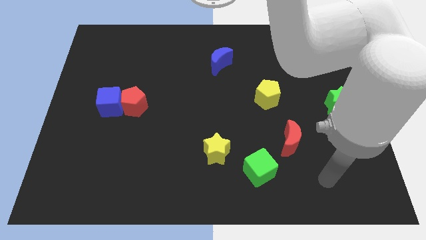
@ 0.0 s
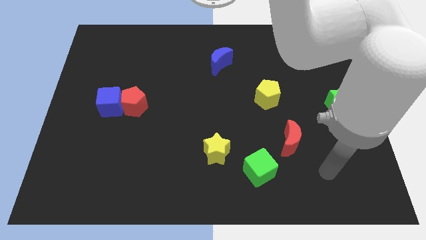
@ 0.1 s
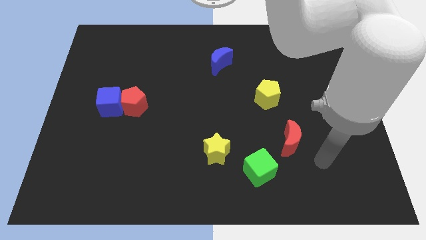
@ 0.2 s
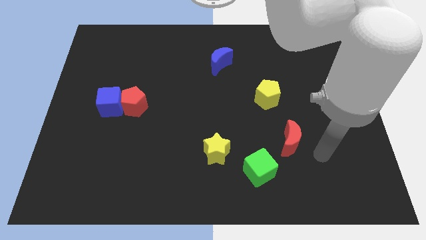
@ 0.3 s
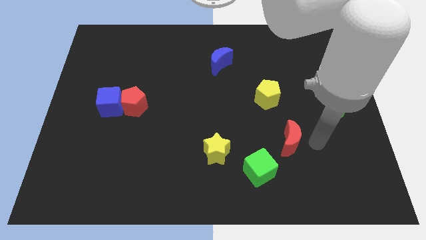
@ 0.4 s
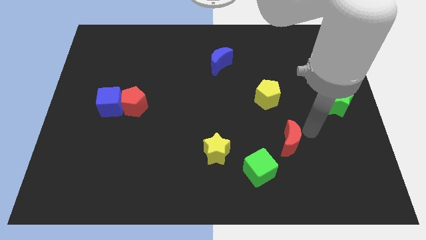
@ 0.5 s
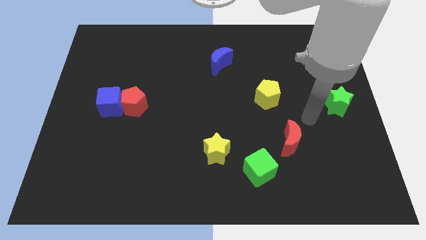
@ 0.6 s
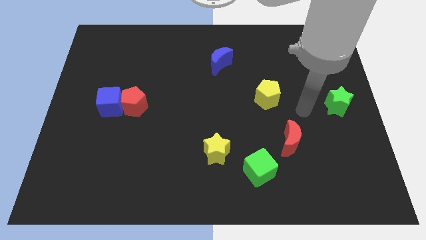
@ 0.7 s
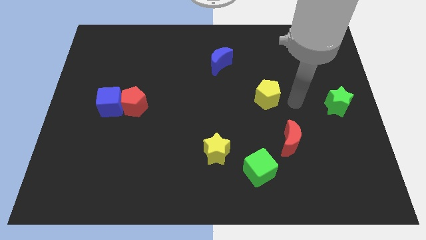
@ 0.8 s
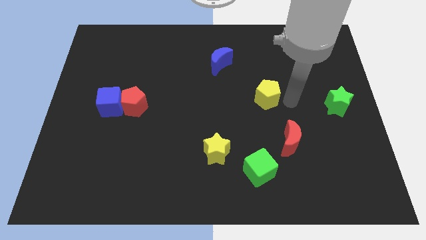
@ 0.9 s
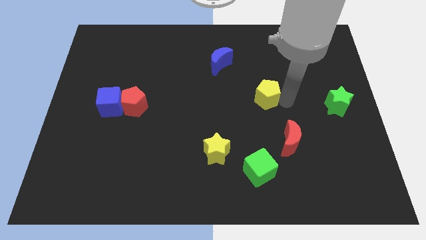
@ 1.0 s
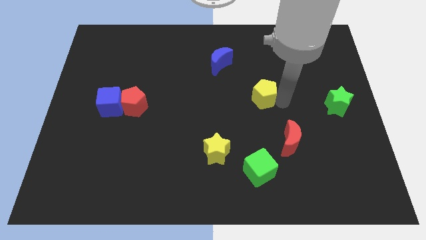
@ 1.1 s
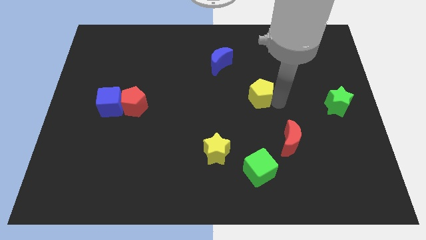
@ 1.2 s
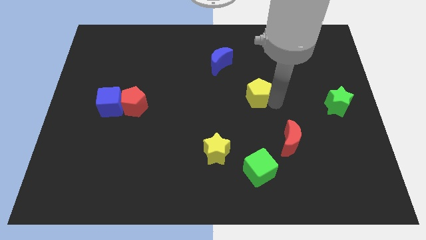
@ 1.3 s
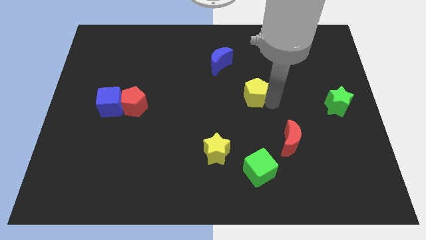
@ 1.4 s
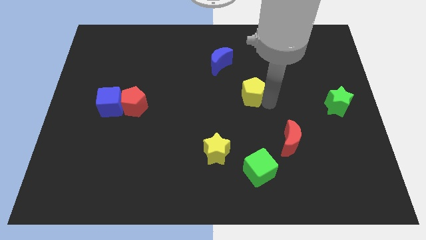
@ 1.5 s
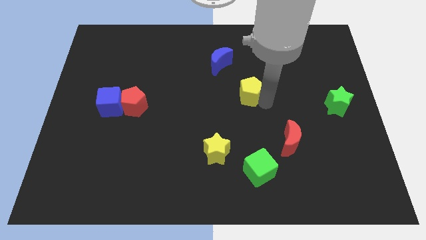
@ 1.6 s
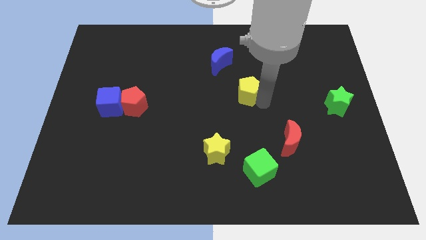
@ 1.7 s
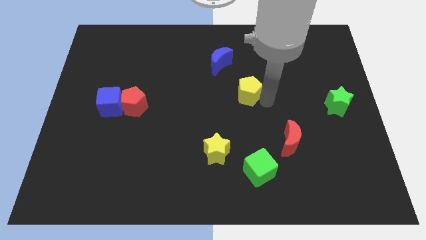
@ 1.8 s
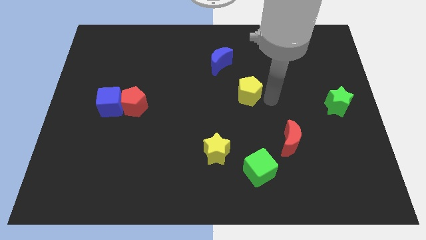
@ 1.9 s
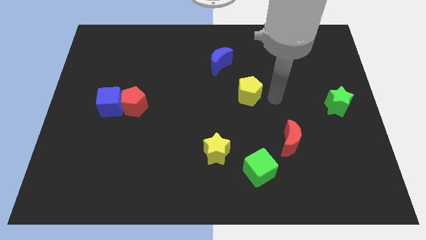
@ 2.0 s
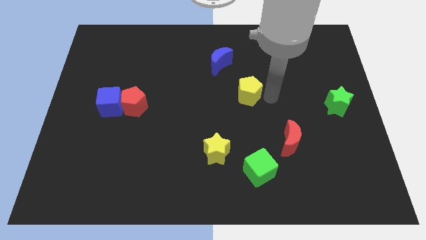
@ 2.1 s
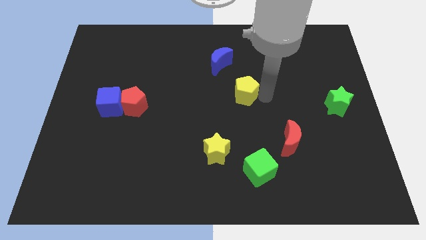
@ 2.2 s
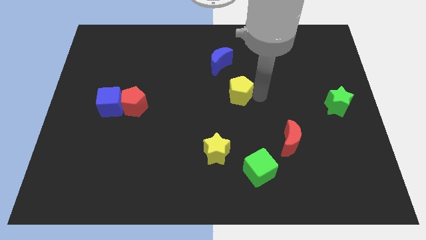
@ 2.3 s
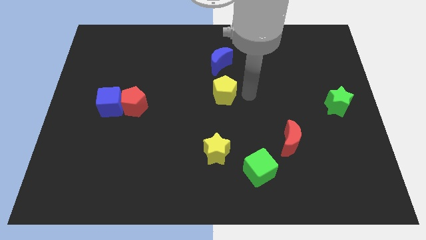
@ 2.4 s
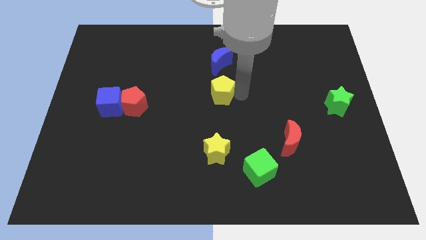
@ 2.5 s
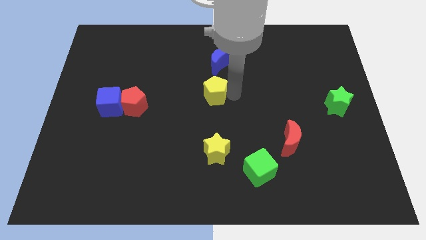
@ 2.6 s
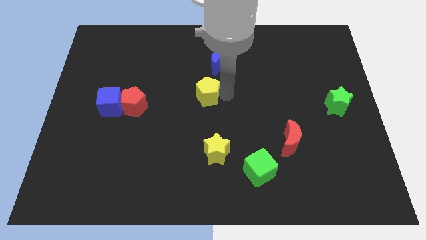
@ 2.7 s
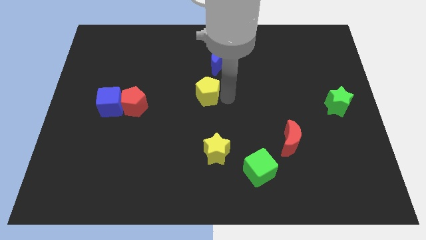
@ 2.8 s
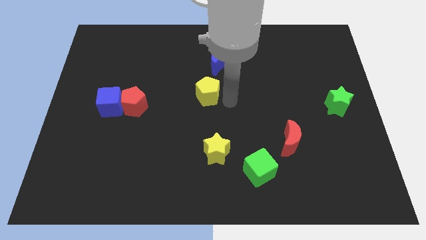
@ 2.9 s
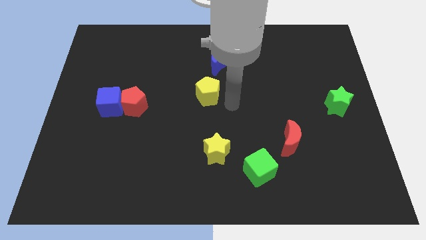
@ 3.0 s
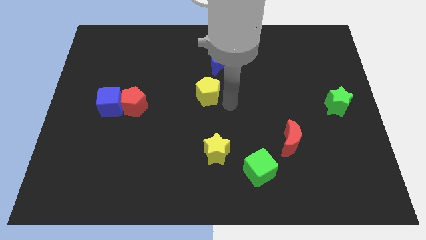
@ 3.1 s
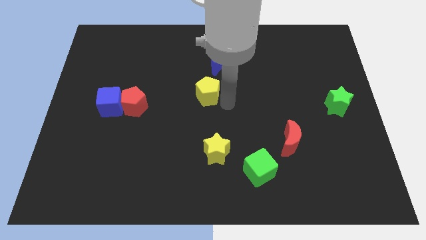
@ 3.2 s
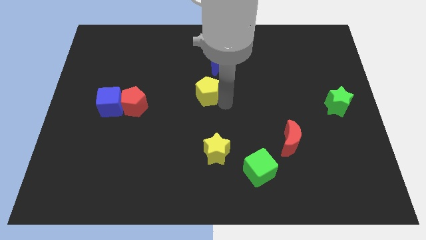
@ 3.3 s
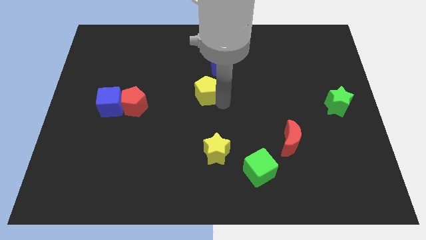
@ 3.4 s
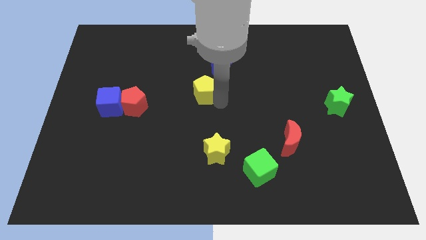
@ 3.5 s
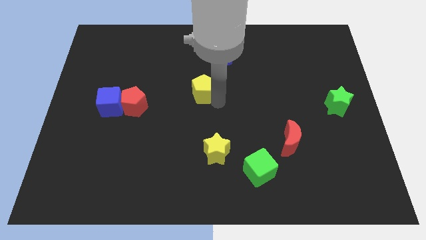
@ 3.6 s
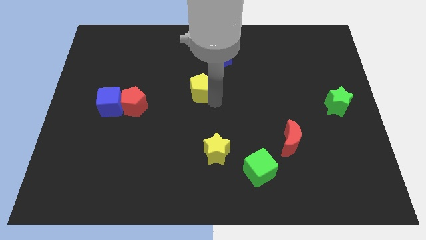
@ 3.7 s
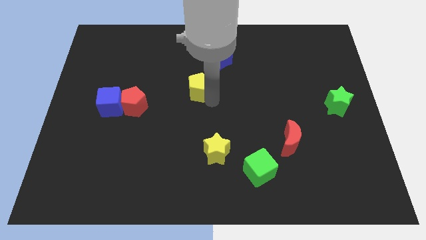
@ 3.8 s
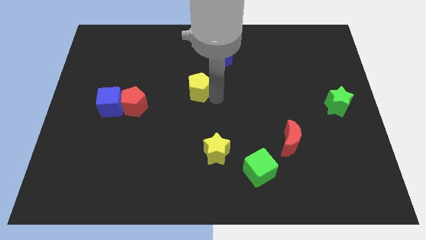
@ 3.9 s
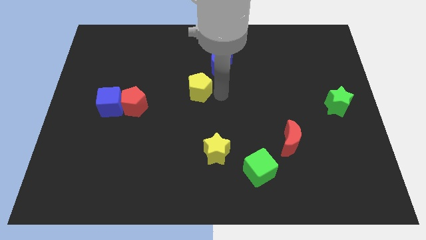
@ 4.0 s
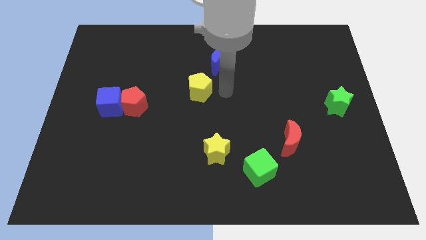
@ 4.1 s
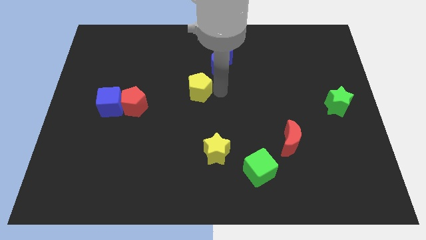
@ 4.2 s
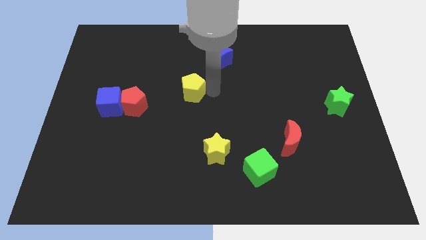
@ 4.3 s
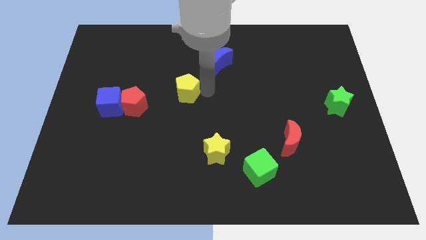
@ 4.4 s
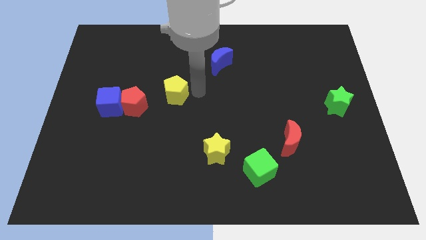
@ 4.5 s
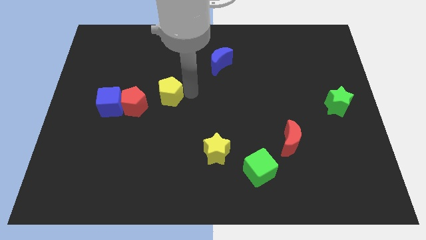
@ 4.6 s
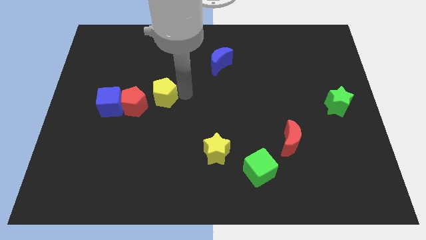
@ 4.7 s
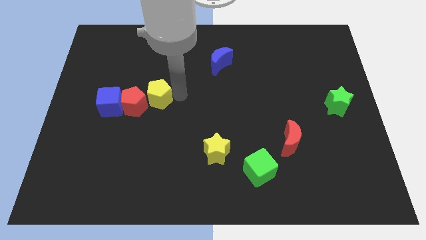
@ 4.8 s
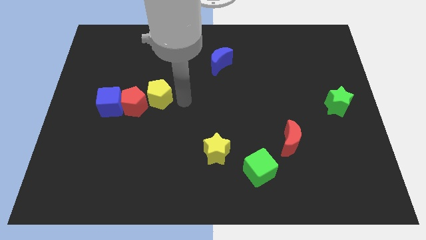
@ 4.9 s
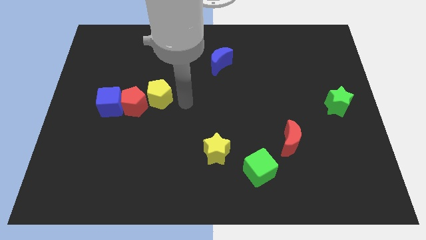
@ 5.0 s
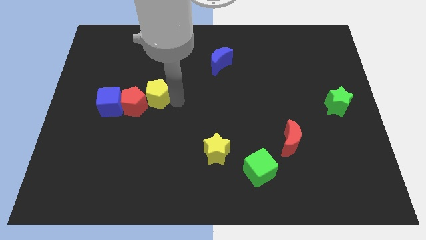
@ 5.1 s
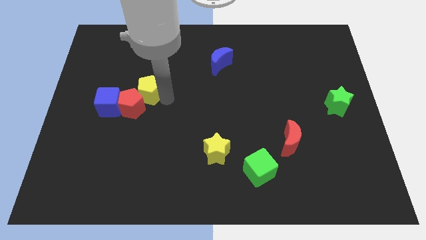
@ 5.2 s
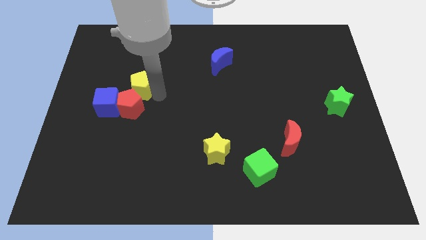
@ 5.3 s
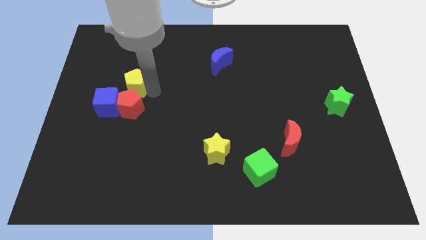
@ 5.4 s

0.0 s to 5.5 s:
put the yellow pentagon diagonally up and to the left of the red pentagon

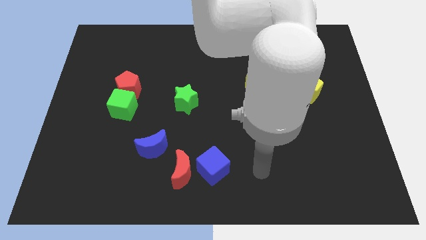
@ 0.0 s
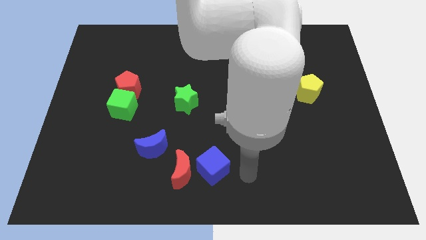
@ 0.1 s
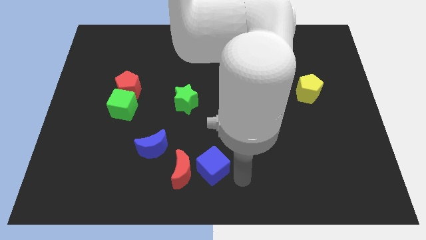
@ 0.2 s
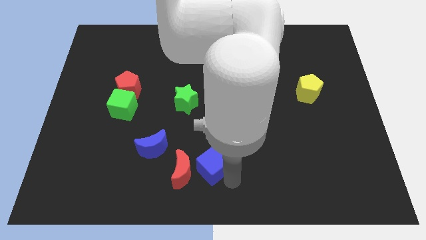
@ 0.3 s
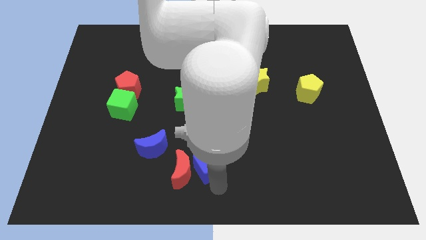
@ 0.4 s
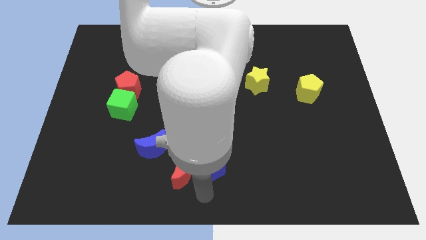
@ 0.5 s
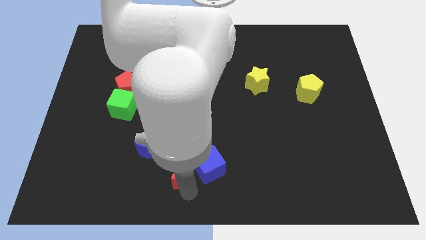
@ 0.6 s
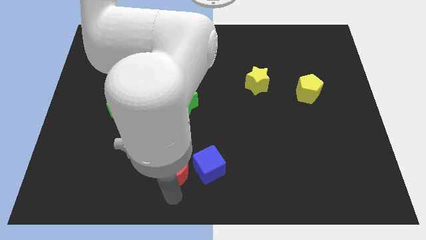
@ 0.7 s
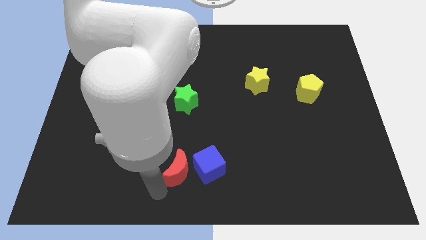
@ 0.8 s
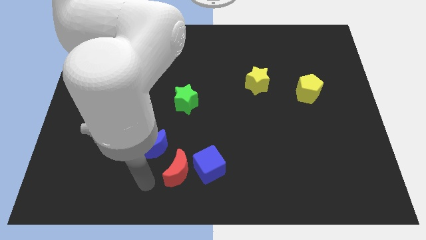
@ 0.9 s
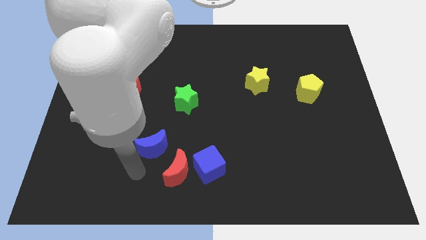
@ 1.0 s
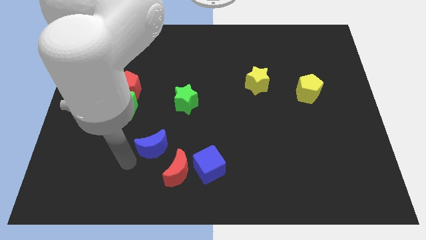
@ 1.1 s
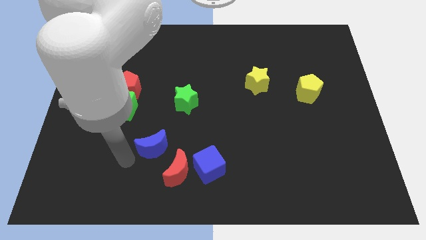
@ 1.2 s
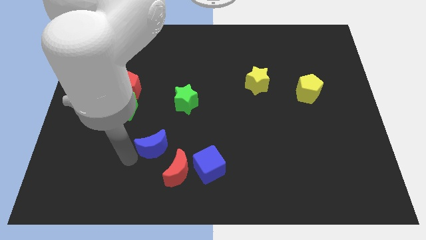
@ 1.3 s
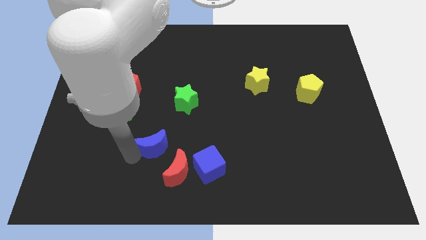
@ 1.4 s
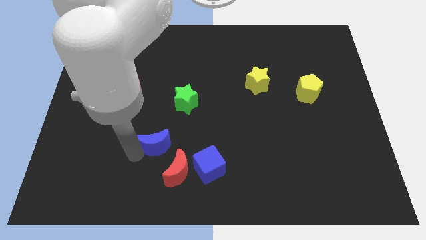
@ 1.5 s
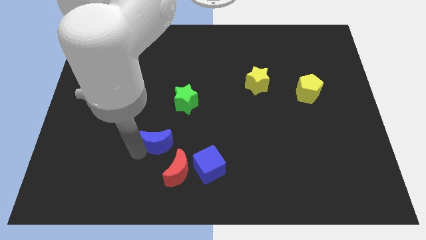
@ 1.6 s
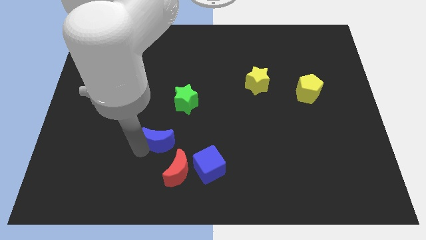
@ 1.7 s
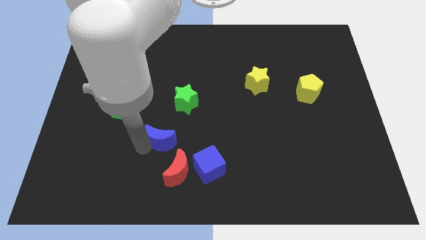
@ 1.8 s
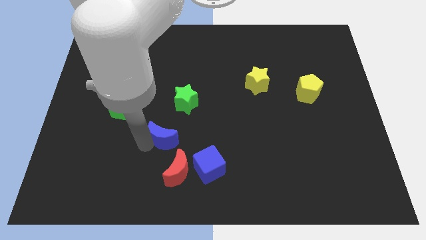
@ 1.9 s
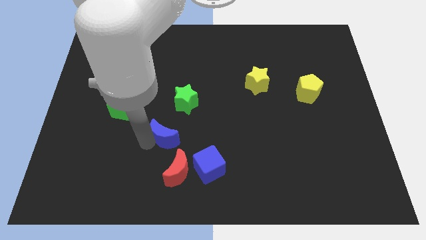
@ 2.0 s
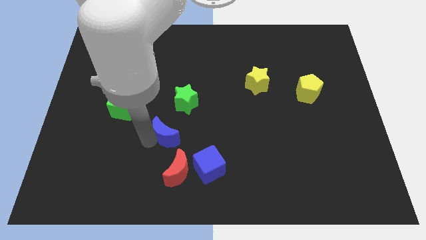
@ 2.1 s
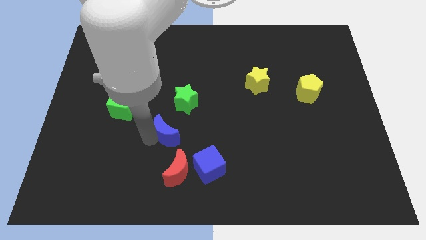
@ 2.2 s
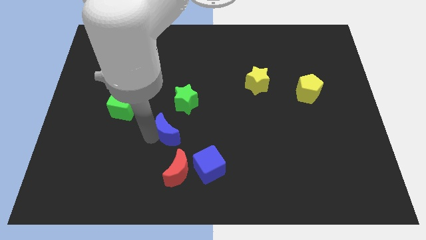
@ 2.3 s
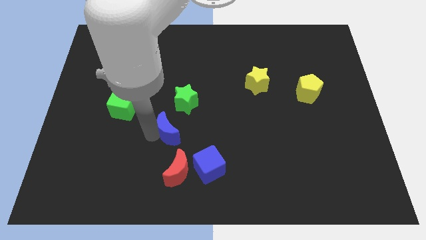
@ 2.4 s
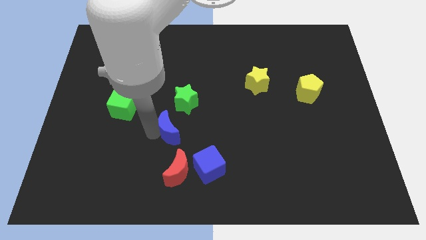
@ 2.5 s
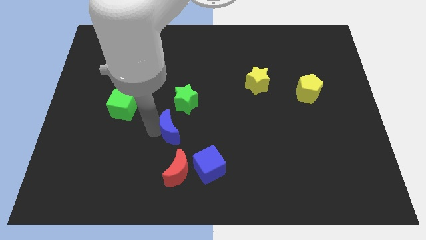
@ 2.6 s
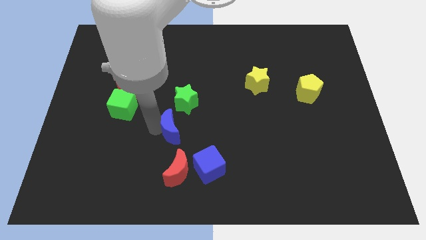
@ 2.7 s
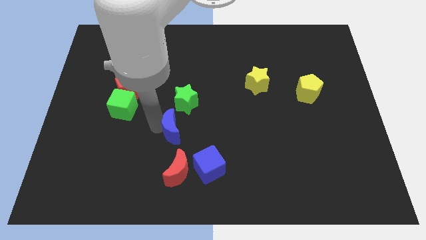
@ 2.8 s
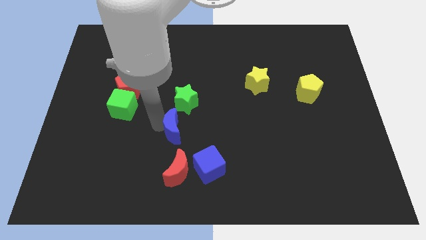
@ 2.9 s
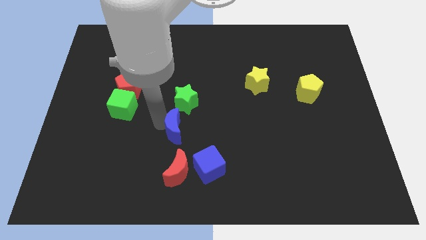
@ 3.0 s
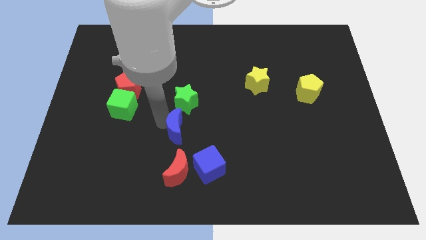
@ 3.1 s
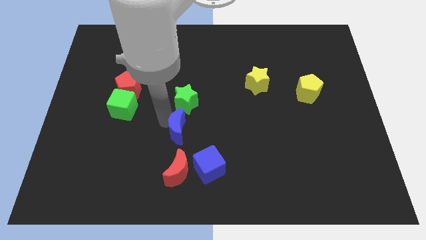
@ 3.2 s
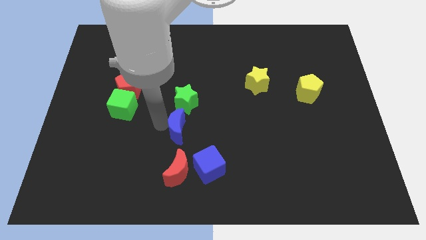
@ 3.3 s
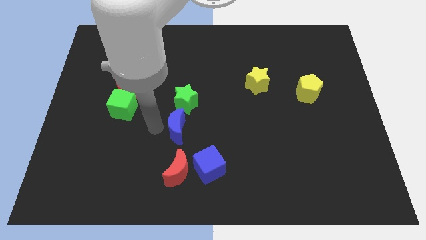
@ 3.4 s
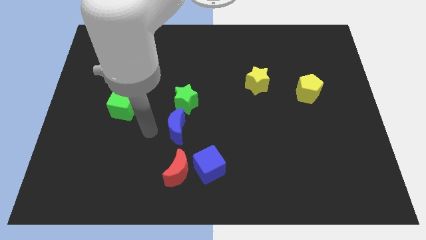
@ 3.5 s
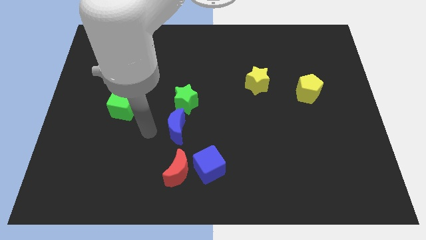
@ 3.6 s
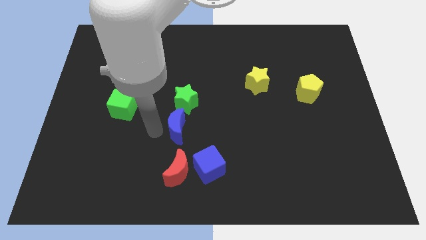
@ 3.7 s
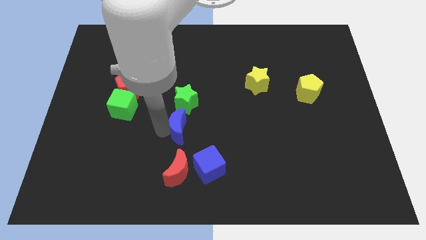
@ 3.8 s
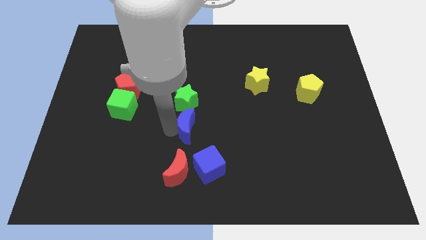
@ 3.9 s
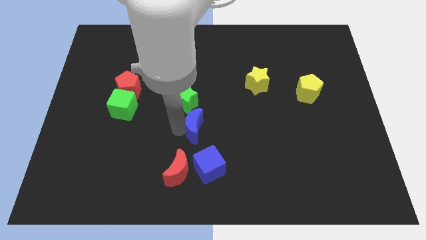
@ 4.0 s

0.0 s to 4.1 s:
push the blue moon above the blue cube
